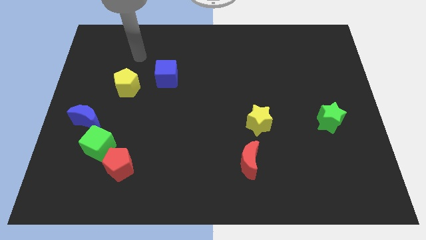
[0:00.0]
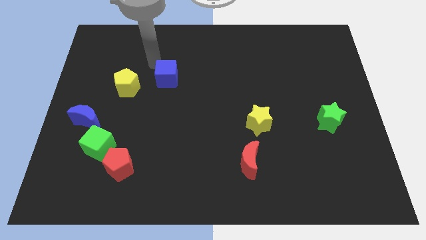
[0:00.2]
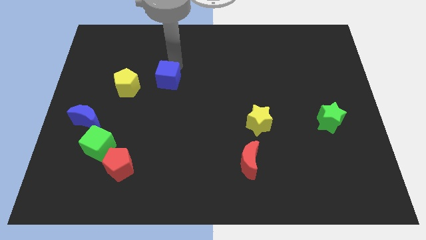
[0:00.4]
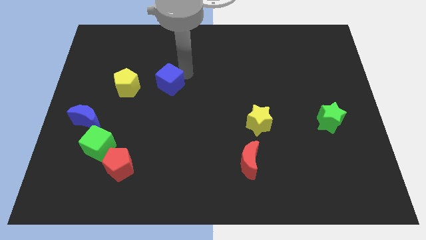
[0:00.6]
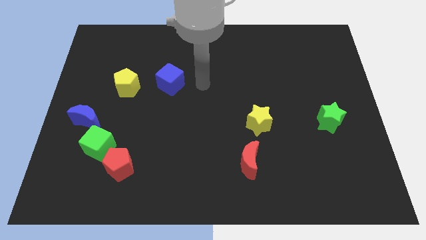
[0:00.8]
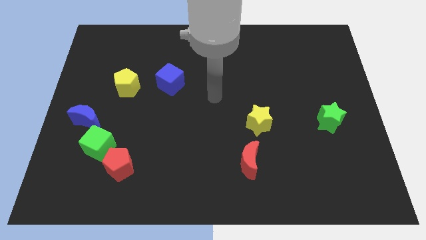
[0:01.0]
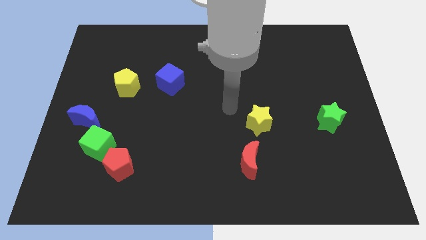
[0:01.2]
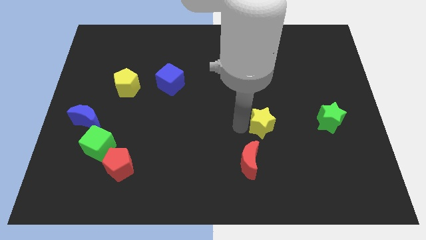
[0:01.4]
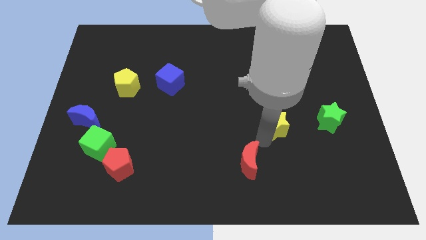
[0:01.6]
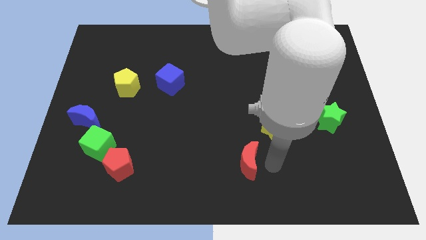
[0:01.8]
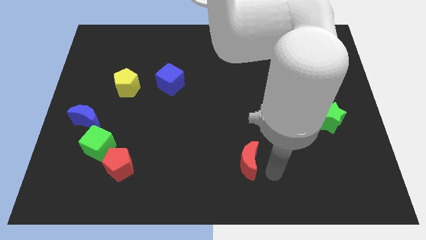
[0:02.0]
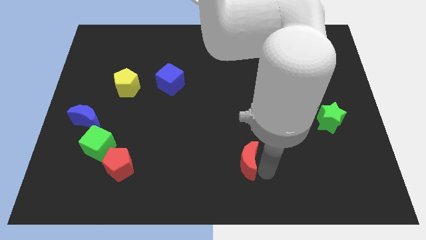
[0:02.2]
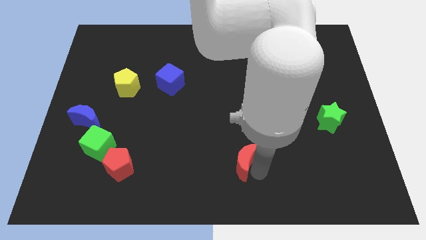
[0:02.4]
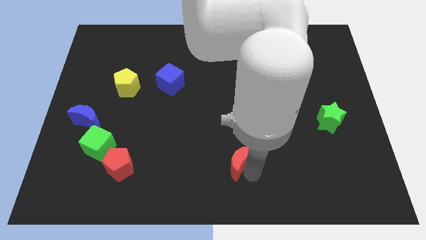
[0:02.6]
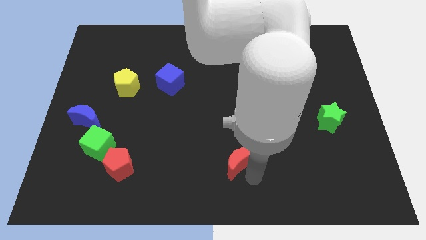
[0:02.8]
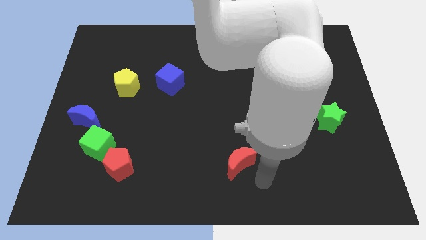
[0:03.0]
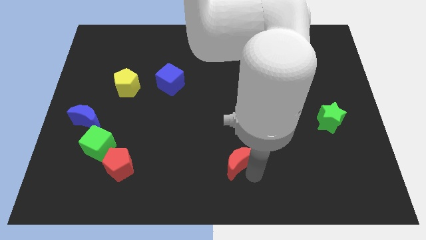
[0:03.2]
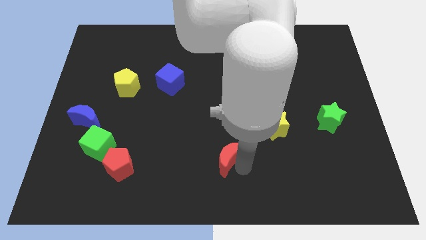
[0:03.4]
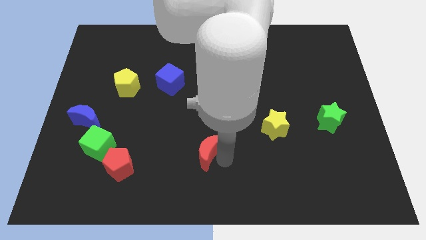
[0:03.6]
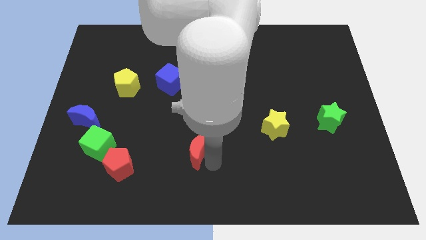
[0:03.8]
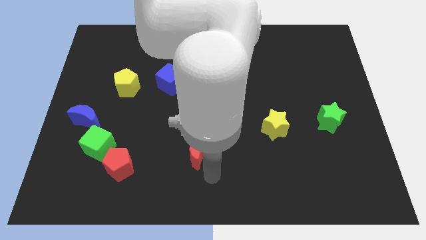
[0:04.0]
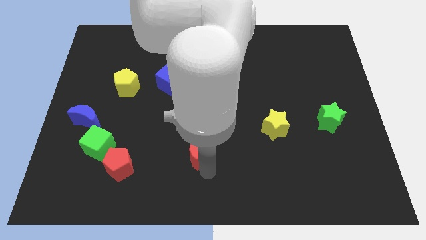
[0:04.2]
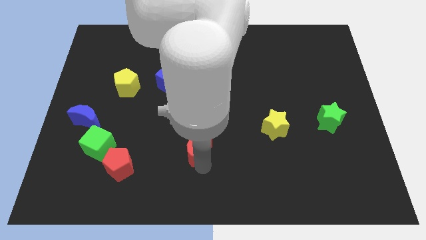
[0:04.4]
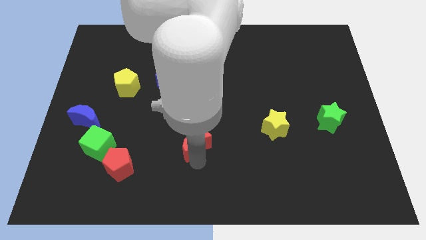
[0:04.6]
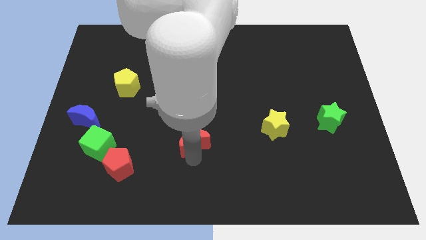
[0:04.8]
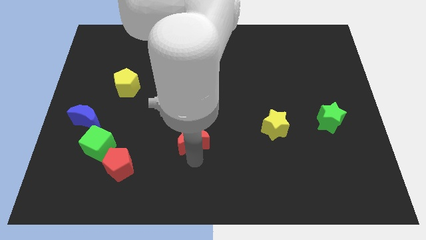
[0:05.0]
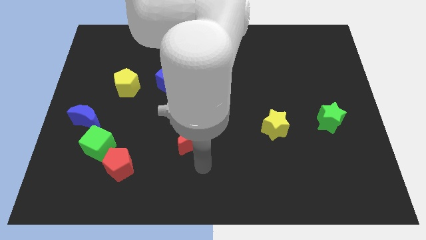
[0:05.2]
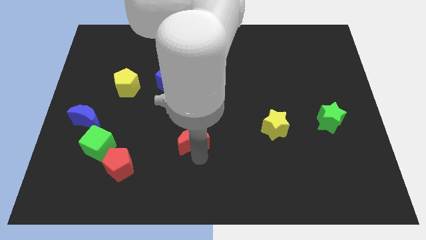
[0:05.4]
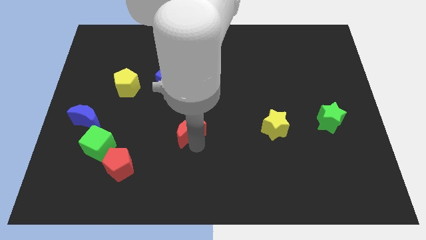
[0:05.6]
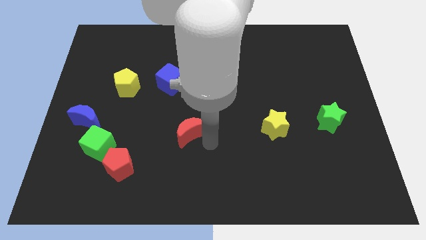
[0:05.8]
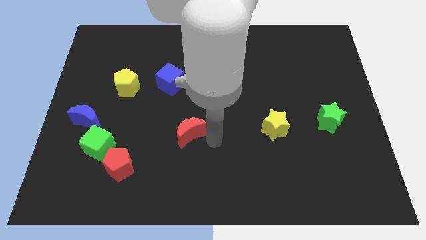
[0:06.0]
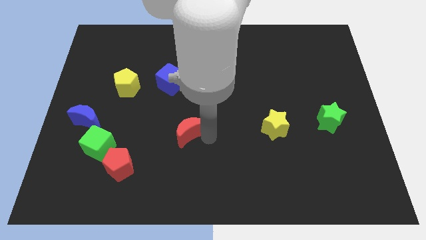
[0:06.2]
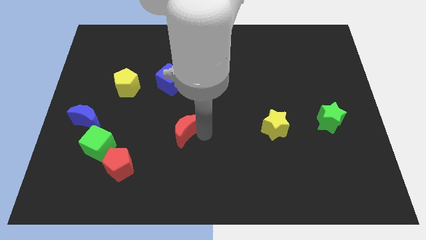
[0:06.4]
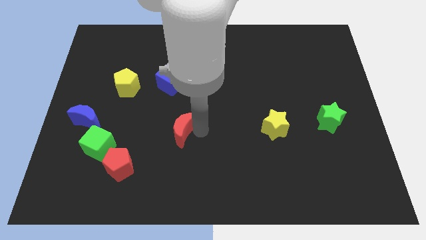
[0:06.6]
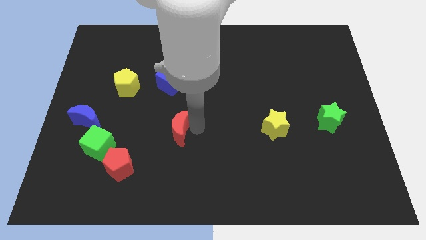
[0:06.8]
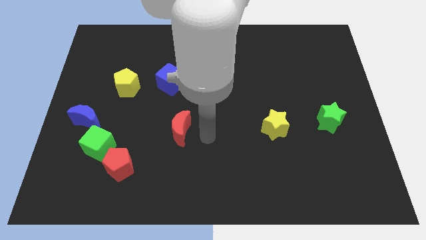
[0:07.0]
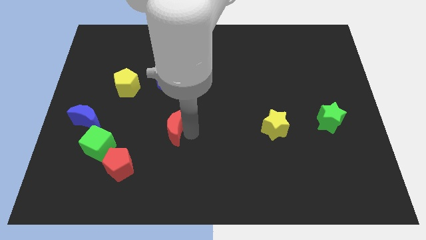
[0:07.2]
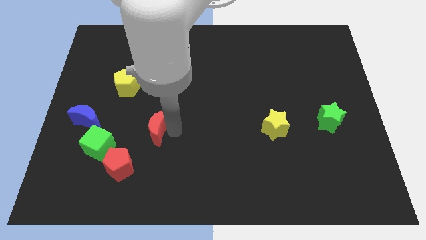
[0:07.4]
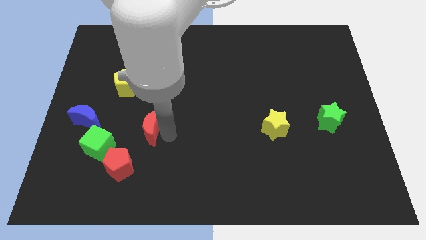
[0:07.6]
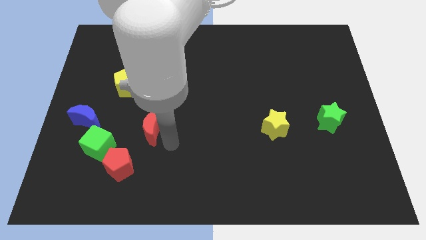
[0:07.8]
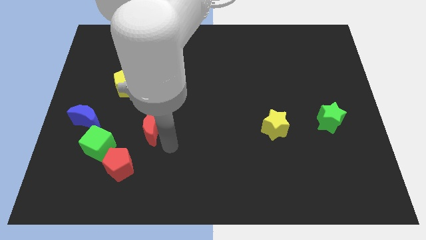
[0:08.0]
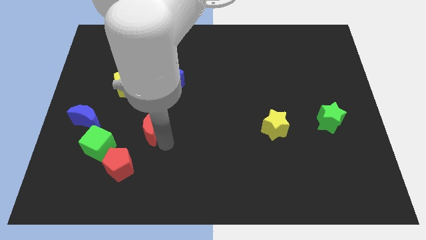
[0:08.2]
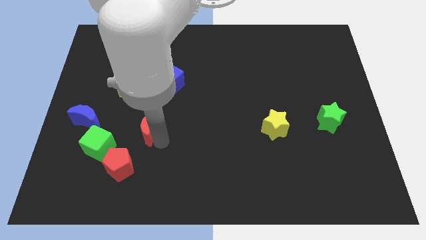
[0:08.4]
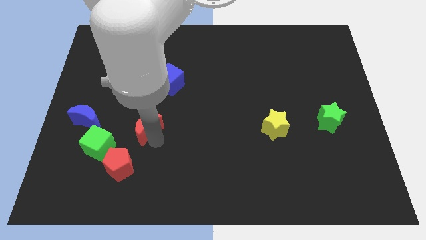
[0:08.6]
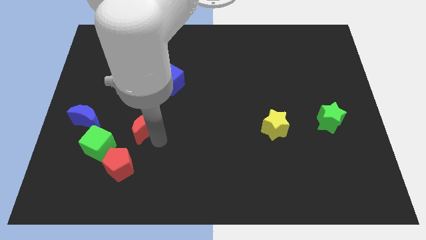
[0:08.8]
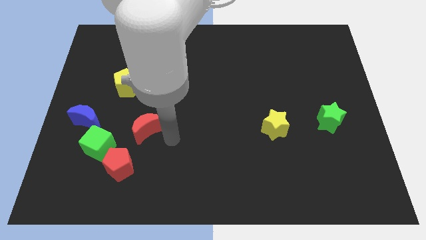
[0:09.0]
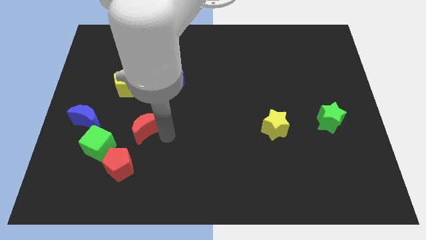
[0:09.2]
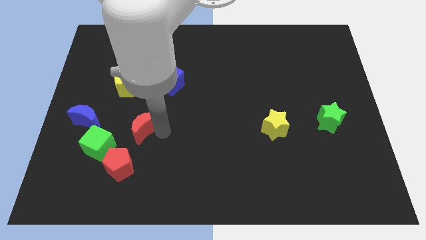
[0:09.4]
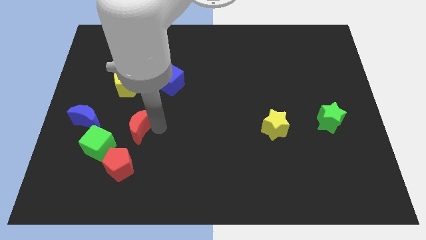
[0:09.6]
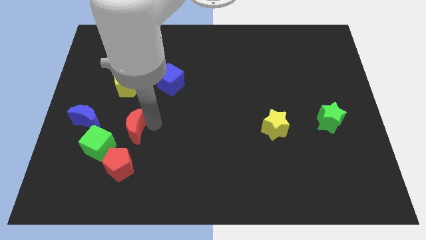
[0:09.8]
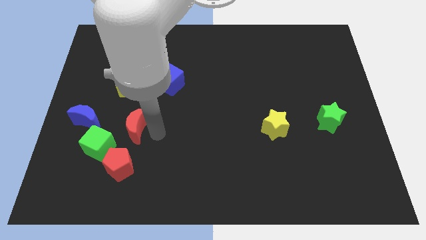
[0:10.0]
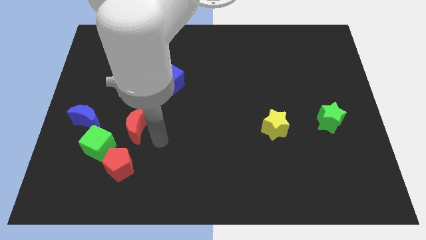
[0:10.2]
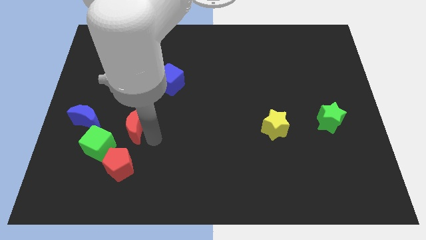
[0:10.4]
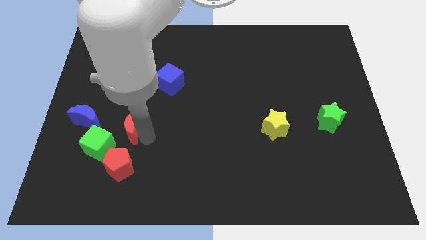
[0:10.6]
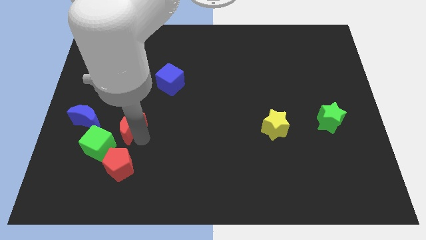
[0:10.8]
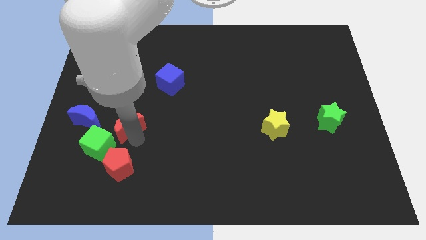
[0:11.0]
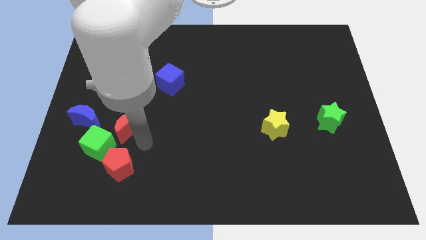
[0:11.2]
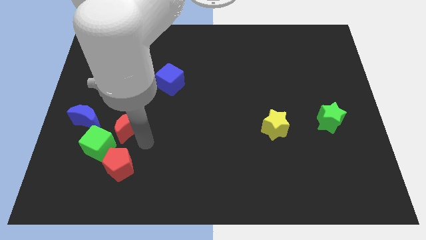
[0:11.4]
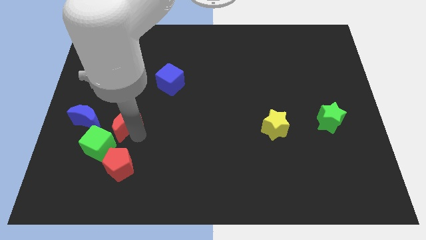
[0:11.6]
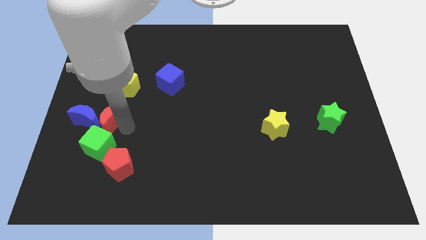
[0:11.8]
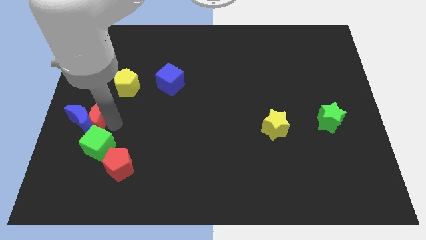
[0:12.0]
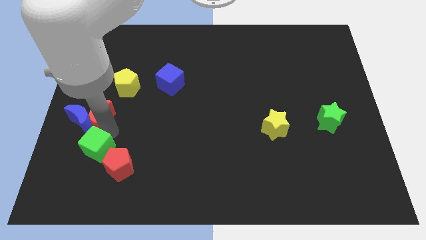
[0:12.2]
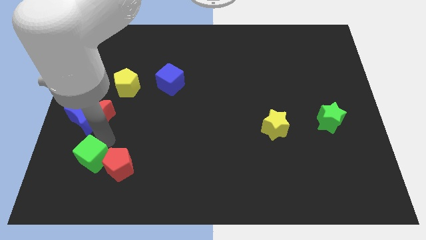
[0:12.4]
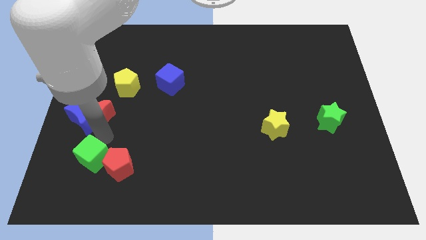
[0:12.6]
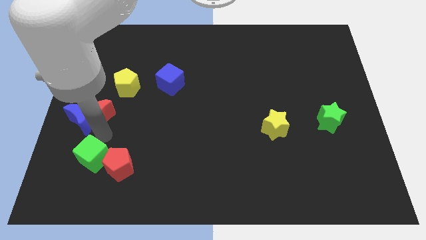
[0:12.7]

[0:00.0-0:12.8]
slide the red moon to the left side of the board

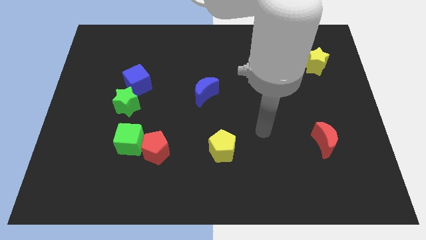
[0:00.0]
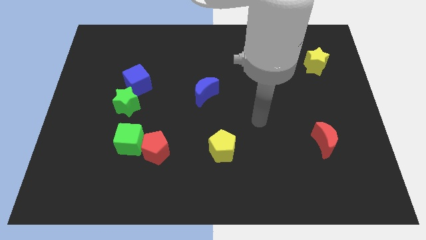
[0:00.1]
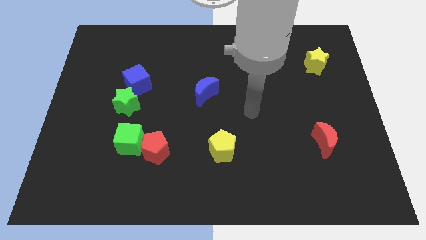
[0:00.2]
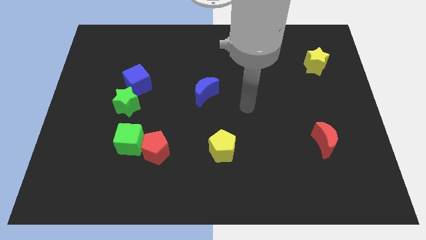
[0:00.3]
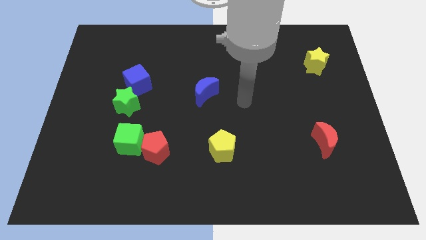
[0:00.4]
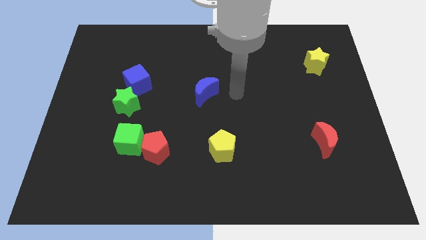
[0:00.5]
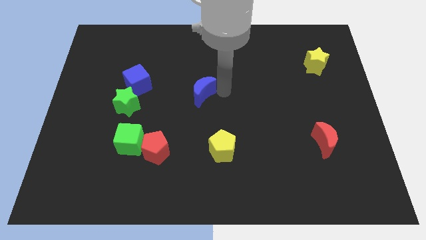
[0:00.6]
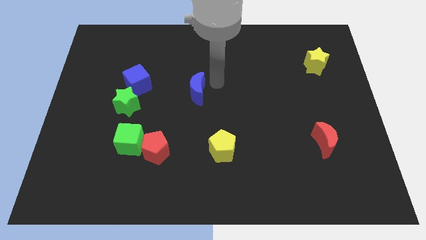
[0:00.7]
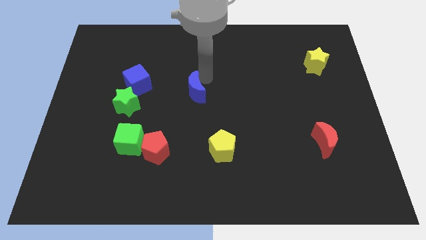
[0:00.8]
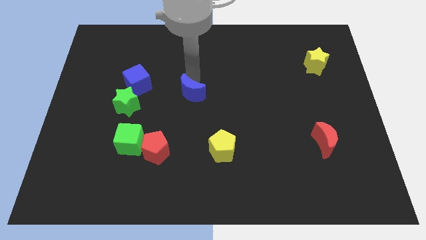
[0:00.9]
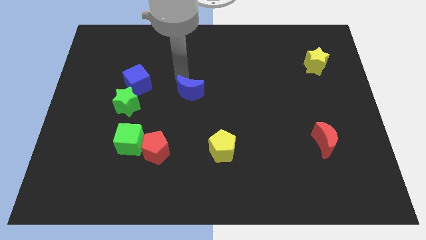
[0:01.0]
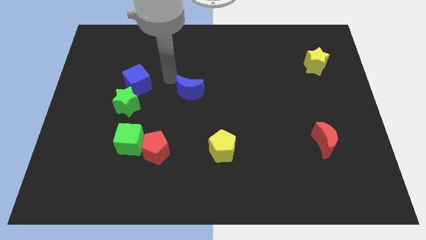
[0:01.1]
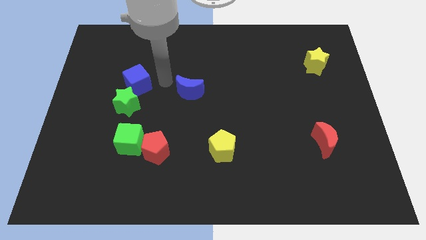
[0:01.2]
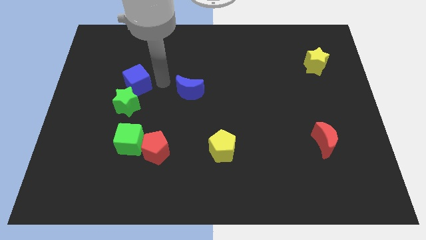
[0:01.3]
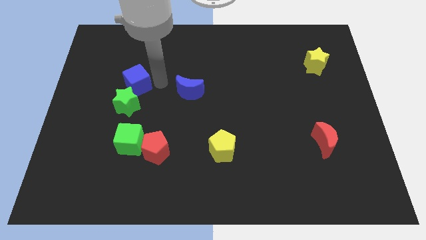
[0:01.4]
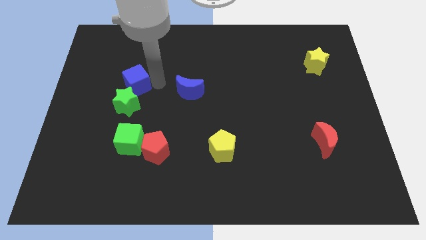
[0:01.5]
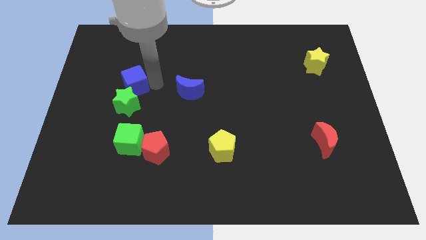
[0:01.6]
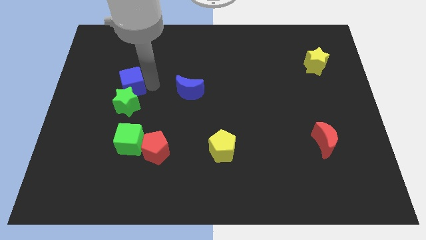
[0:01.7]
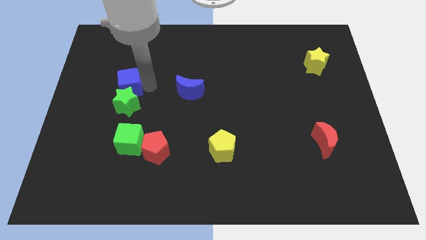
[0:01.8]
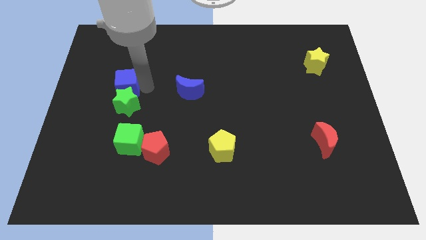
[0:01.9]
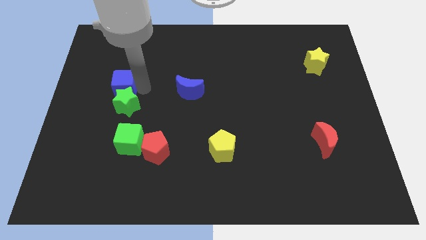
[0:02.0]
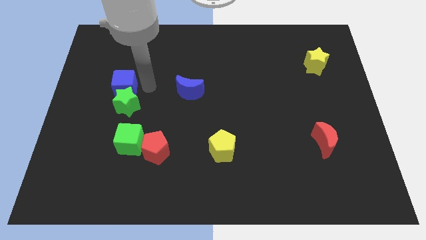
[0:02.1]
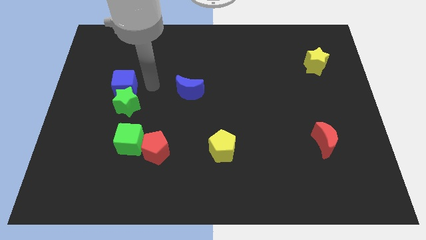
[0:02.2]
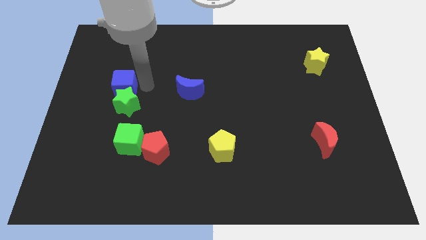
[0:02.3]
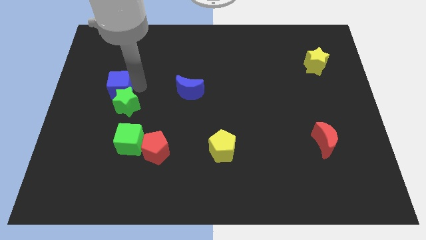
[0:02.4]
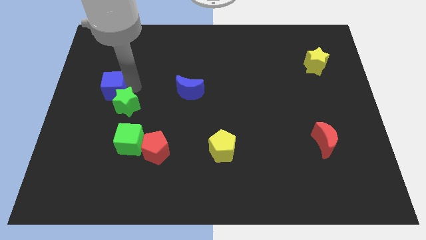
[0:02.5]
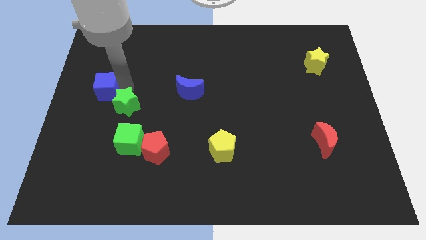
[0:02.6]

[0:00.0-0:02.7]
push the blue cube to the center left
